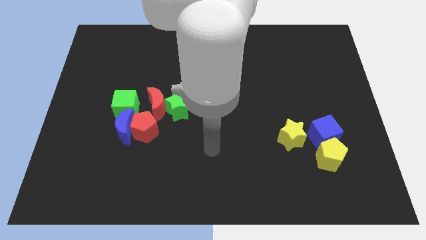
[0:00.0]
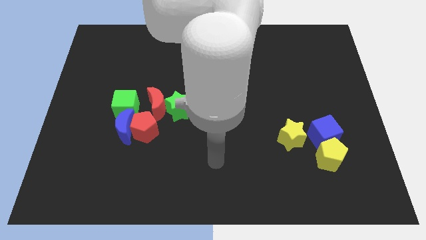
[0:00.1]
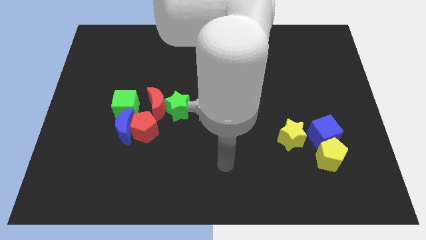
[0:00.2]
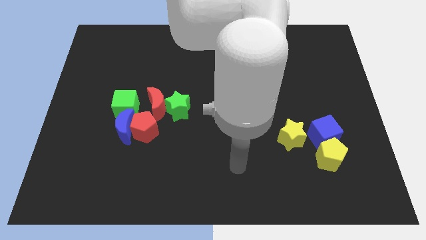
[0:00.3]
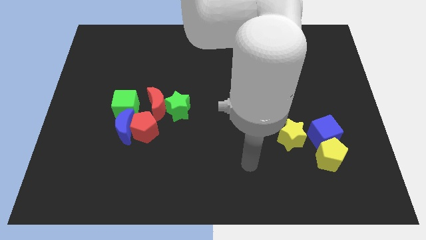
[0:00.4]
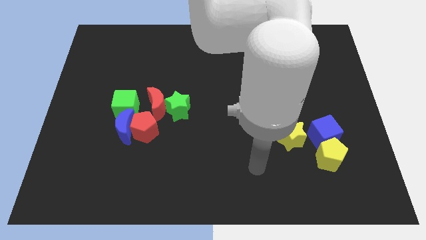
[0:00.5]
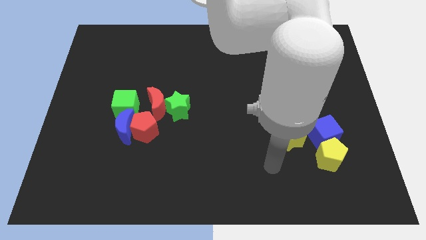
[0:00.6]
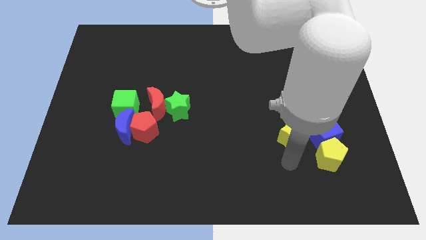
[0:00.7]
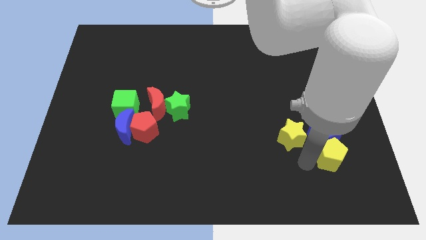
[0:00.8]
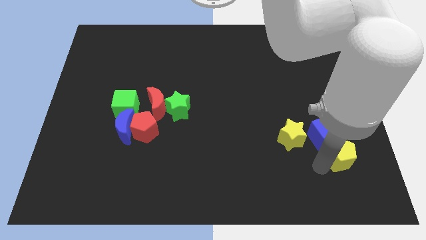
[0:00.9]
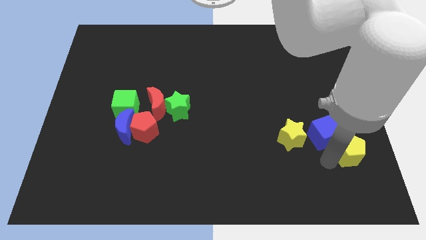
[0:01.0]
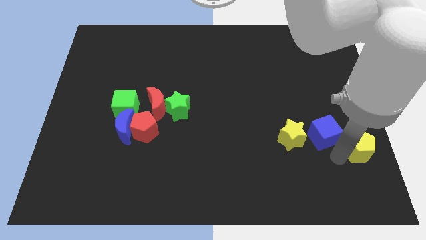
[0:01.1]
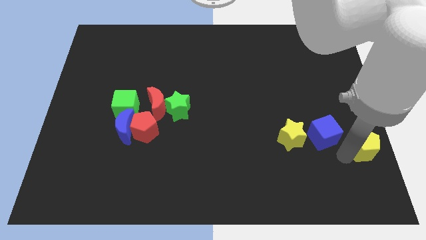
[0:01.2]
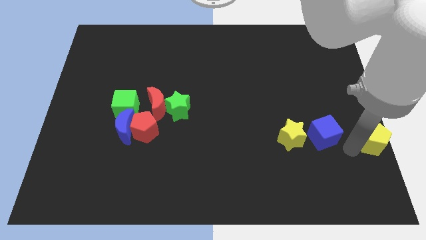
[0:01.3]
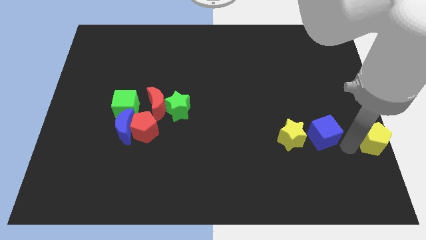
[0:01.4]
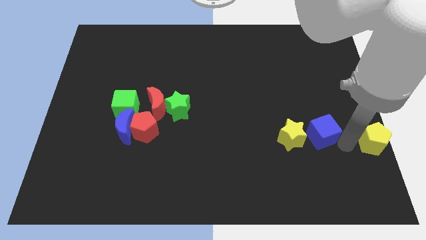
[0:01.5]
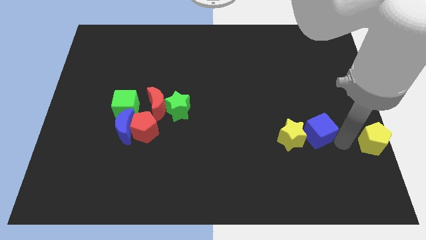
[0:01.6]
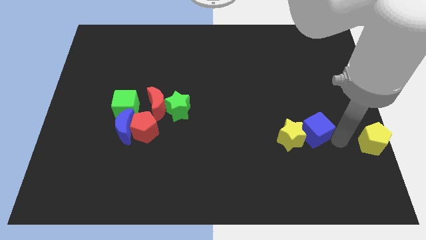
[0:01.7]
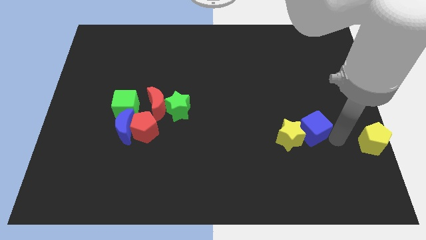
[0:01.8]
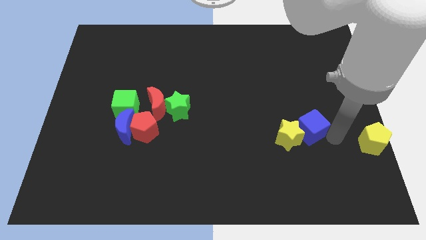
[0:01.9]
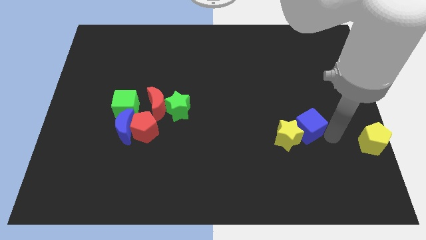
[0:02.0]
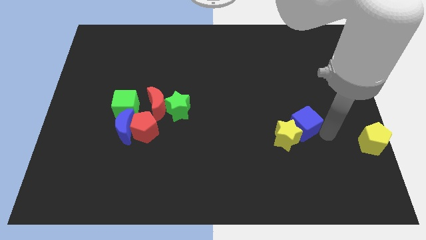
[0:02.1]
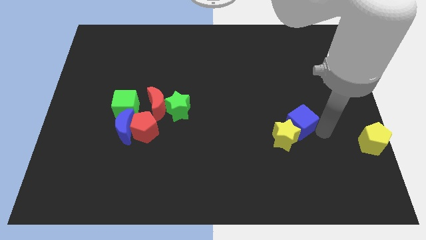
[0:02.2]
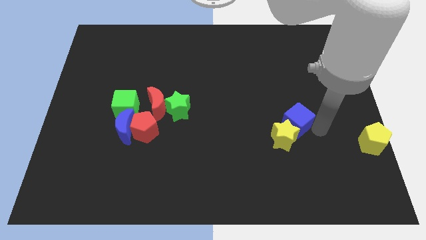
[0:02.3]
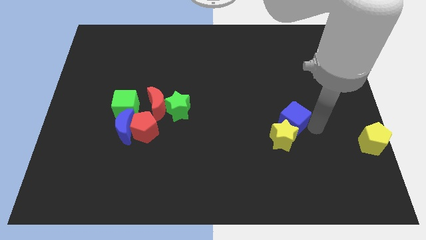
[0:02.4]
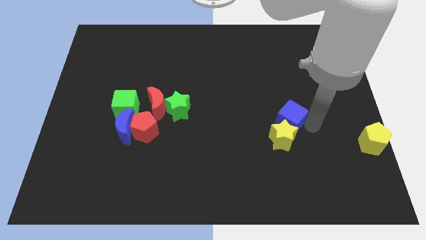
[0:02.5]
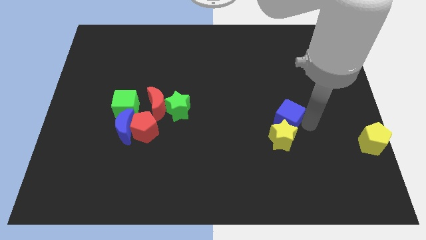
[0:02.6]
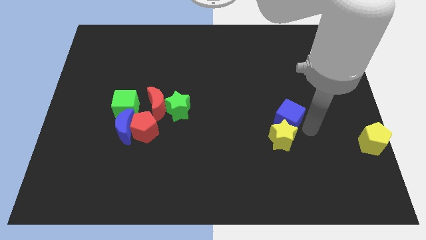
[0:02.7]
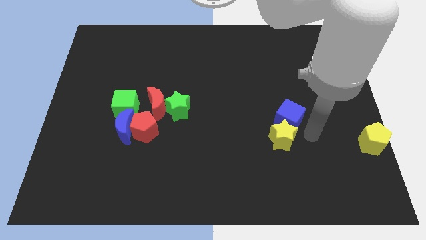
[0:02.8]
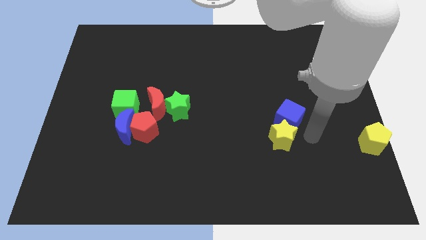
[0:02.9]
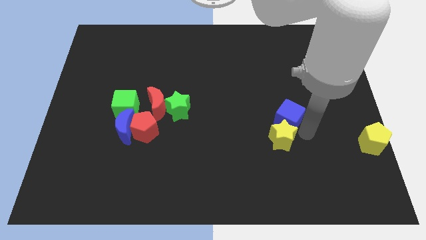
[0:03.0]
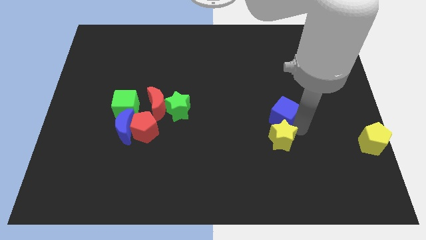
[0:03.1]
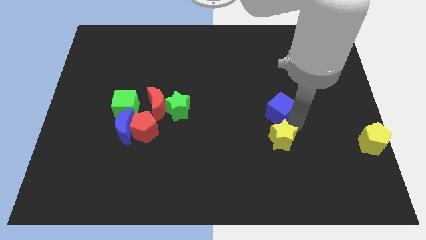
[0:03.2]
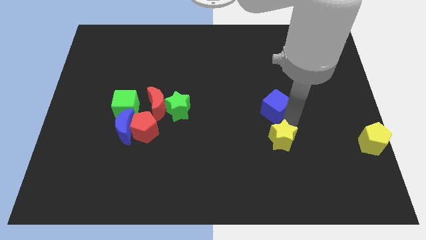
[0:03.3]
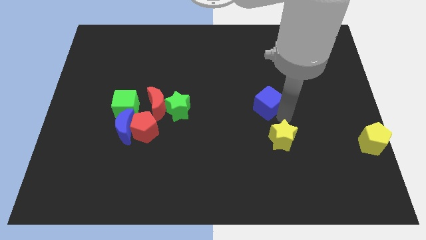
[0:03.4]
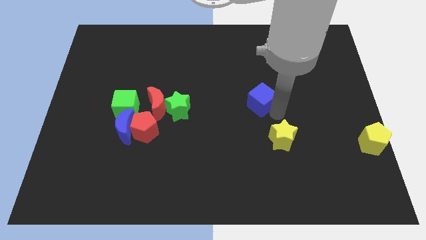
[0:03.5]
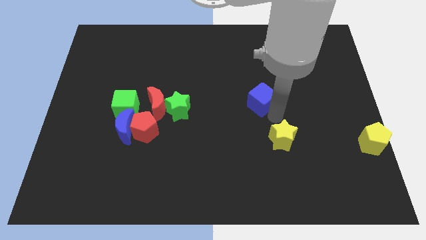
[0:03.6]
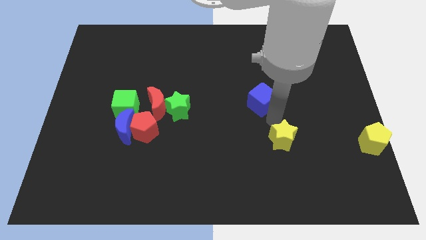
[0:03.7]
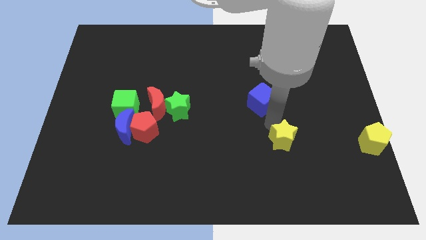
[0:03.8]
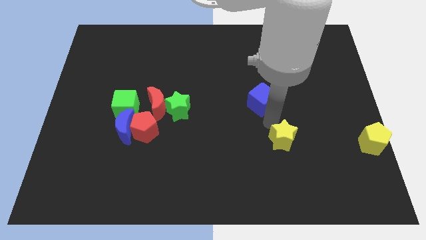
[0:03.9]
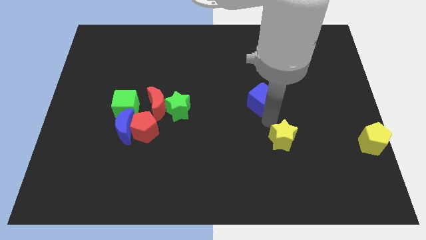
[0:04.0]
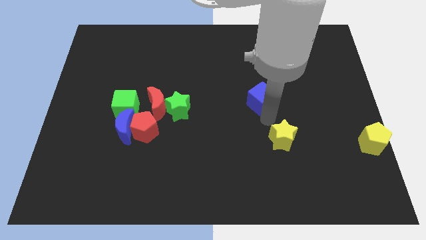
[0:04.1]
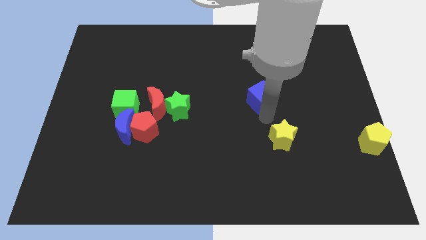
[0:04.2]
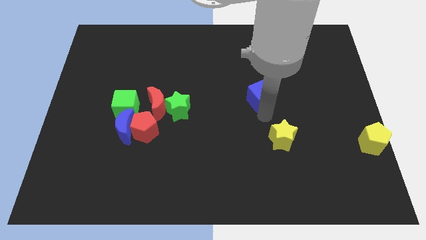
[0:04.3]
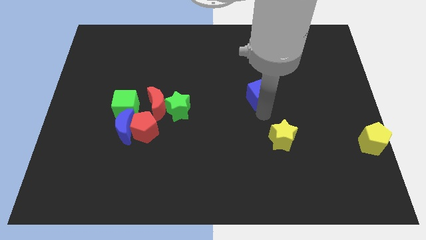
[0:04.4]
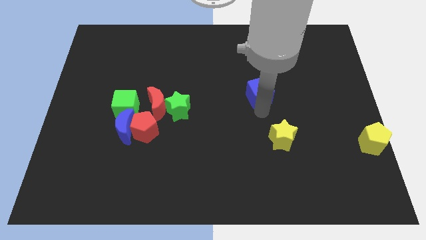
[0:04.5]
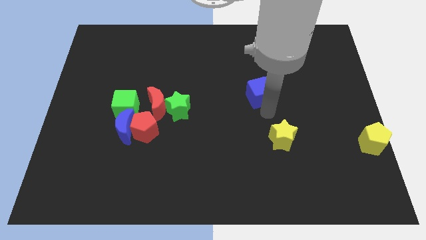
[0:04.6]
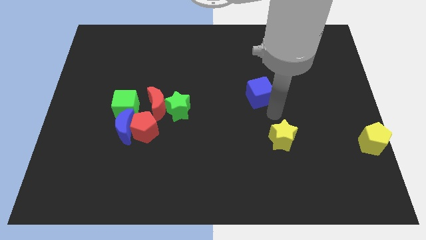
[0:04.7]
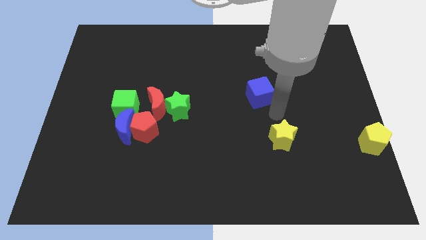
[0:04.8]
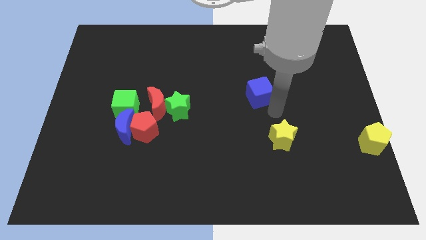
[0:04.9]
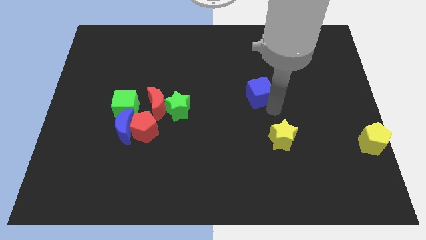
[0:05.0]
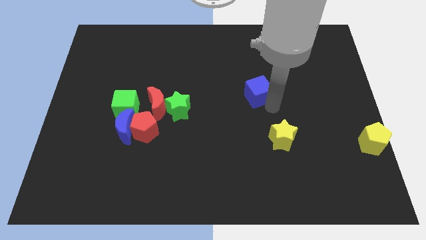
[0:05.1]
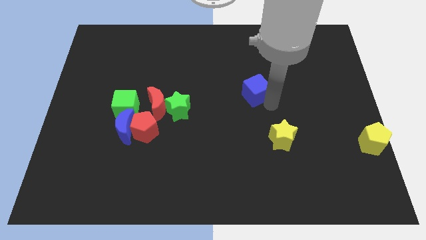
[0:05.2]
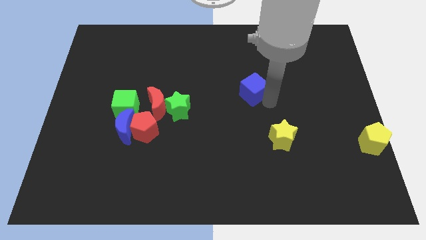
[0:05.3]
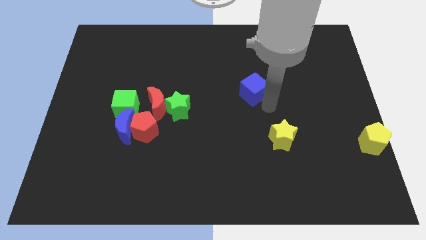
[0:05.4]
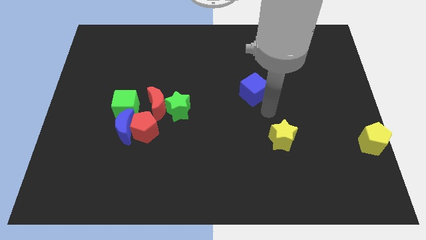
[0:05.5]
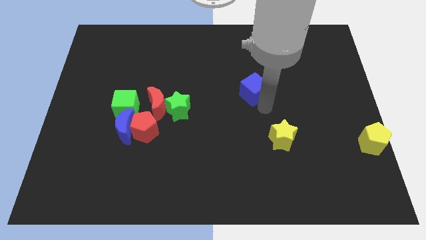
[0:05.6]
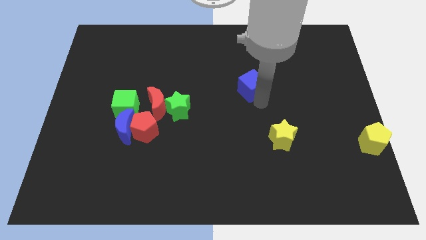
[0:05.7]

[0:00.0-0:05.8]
move the blue cube upwards and to the left diagonally

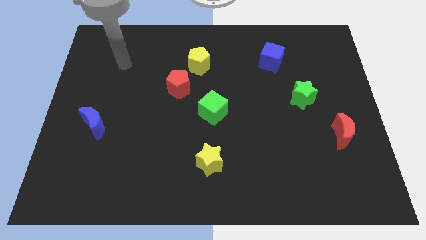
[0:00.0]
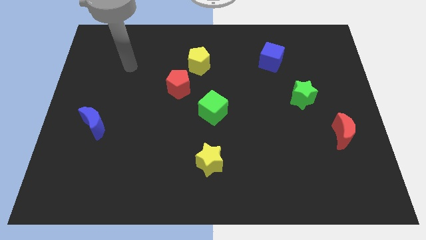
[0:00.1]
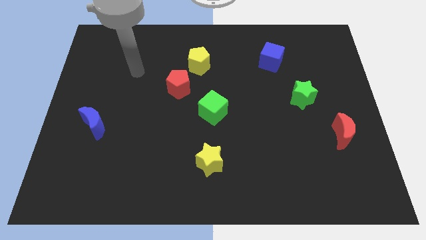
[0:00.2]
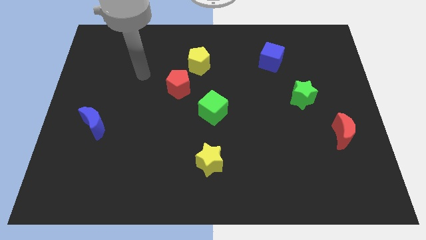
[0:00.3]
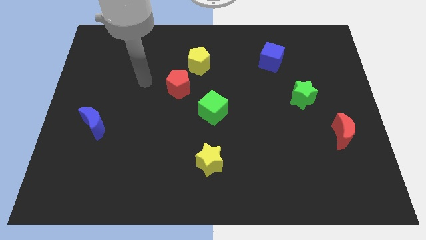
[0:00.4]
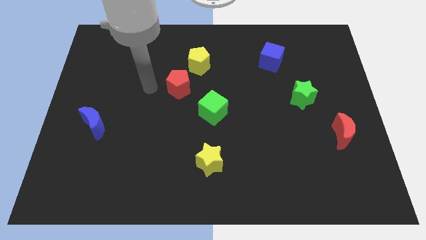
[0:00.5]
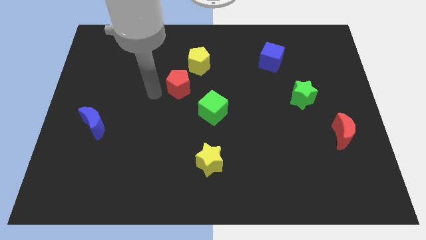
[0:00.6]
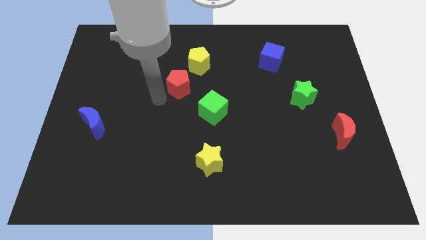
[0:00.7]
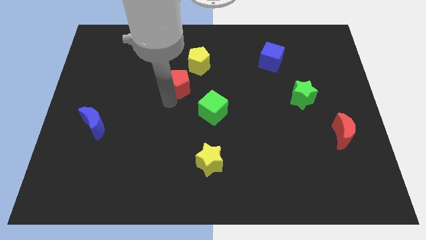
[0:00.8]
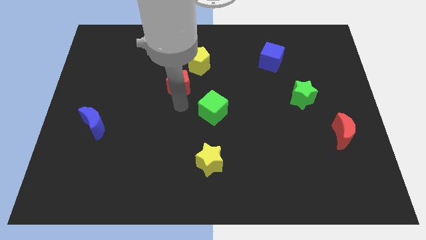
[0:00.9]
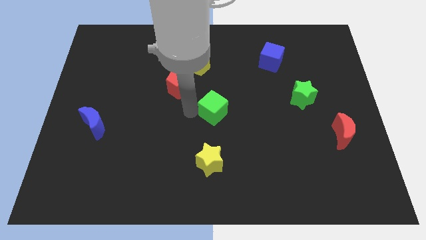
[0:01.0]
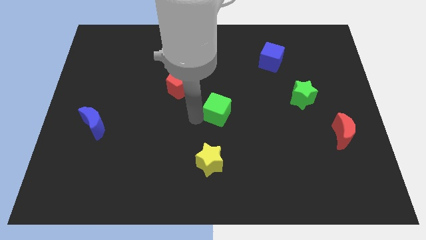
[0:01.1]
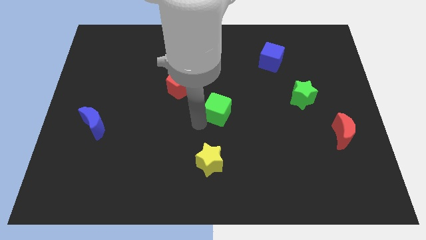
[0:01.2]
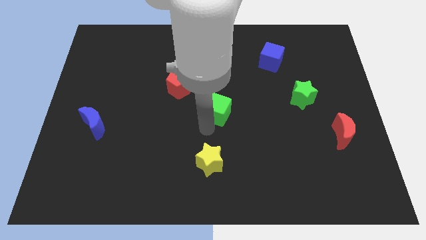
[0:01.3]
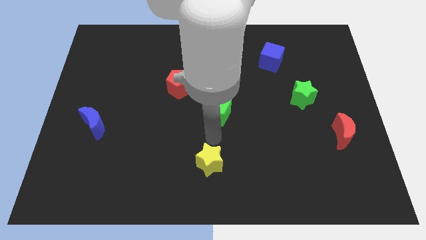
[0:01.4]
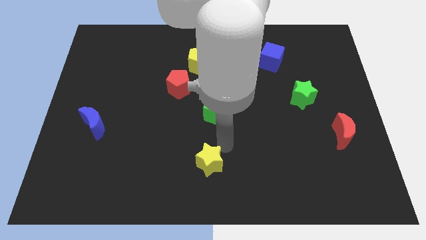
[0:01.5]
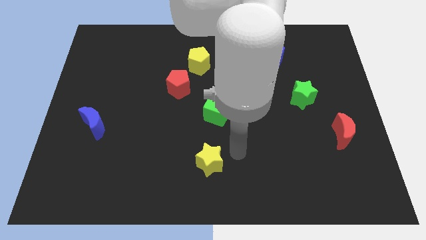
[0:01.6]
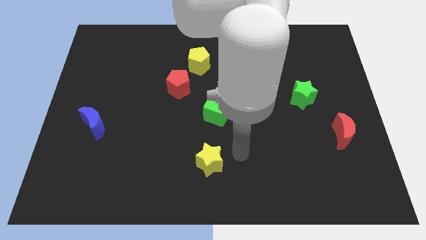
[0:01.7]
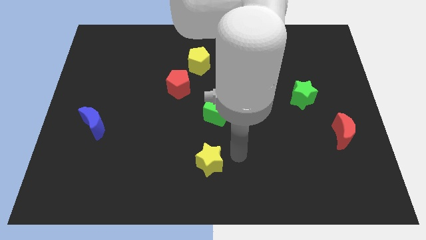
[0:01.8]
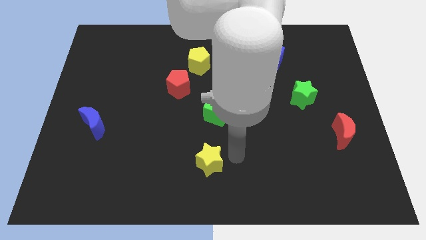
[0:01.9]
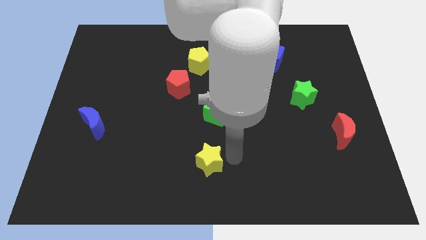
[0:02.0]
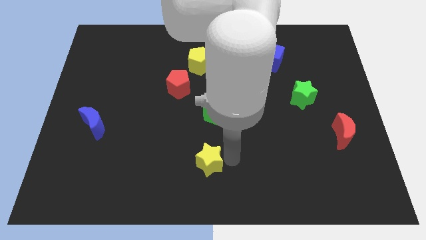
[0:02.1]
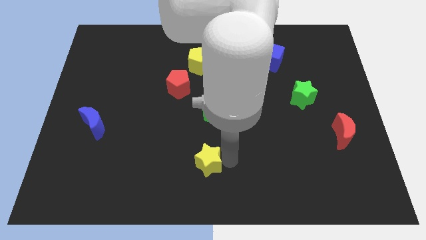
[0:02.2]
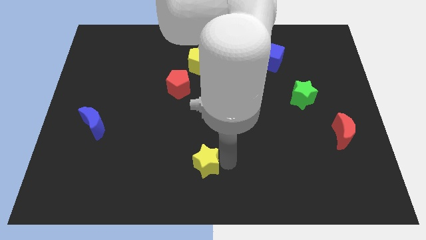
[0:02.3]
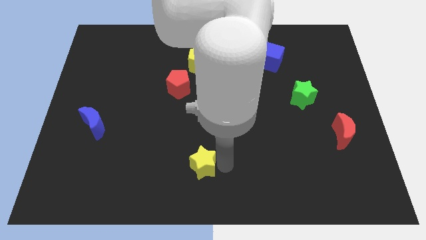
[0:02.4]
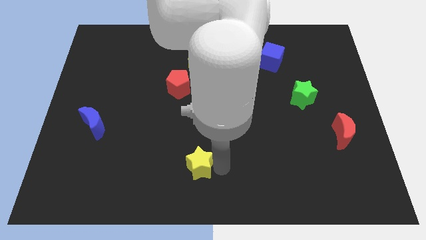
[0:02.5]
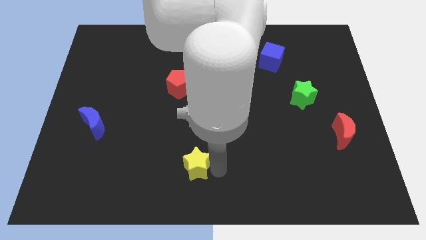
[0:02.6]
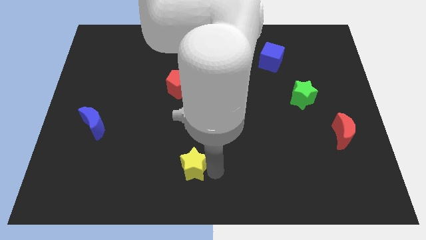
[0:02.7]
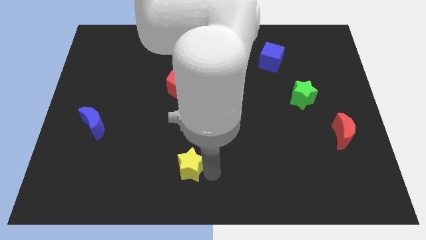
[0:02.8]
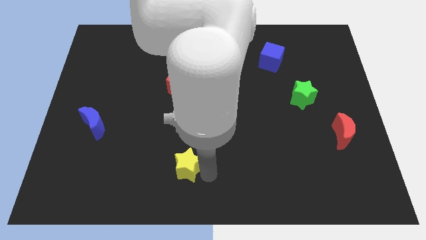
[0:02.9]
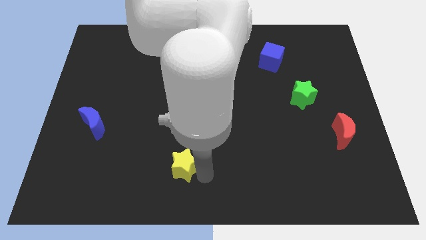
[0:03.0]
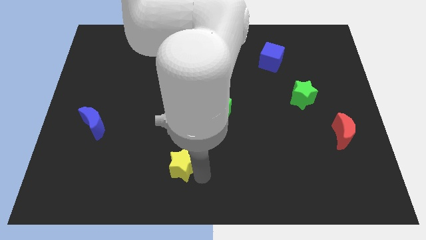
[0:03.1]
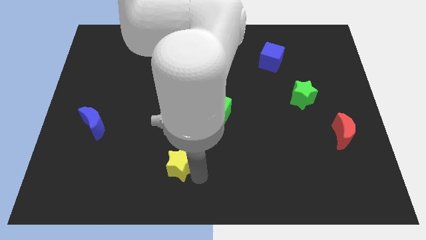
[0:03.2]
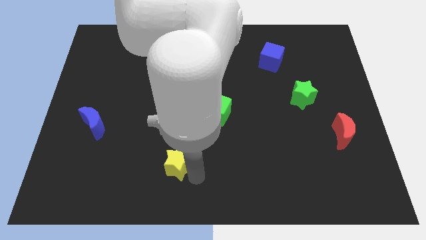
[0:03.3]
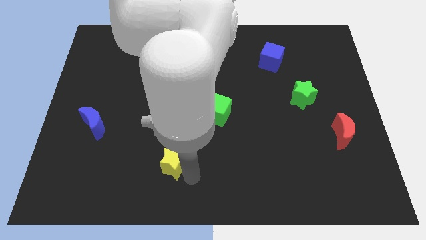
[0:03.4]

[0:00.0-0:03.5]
push the yellow star a bit to the left
